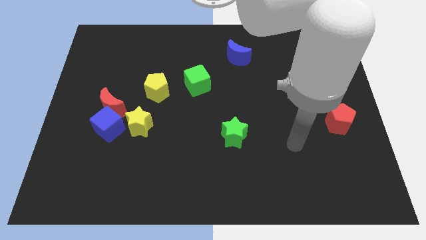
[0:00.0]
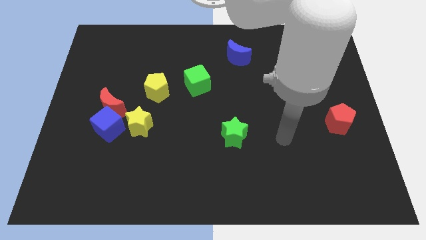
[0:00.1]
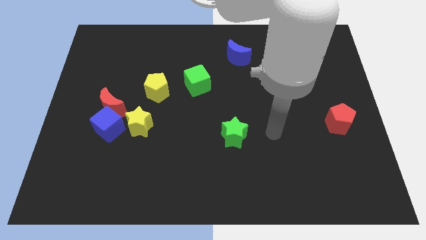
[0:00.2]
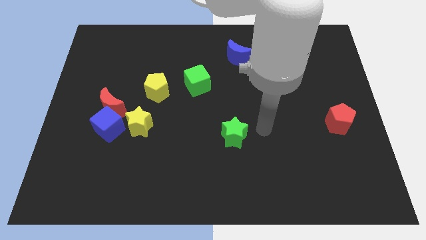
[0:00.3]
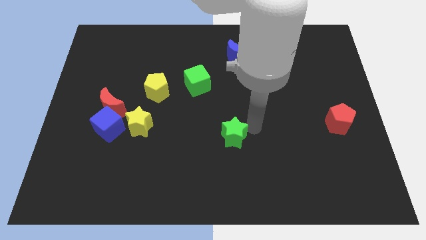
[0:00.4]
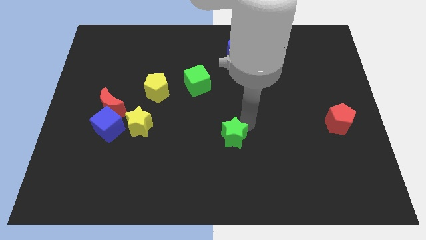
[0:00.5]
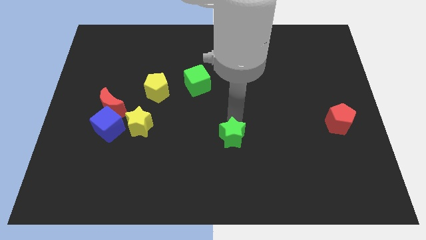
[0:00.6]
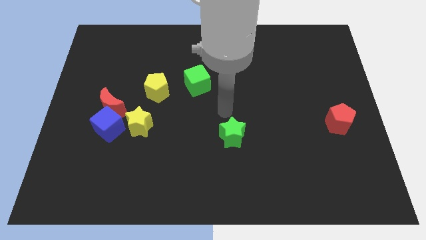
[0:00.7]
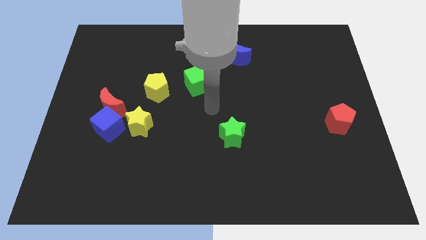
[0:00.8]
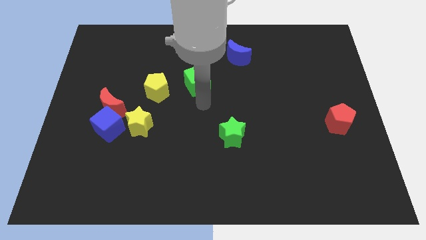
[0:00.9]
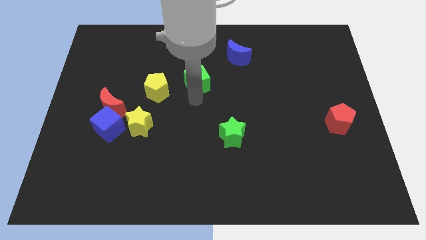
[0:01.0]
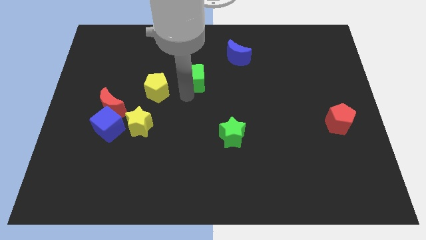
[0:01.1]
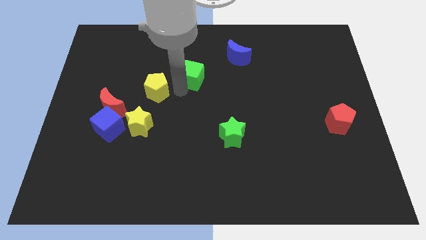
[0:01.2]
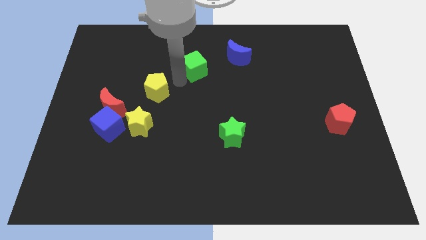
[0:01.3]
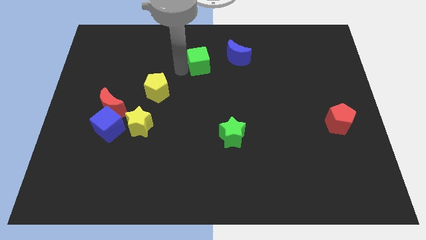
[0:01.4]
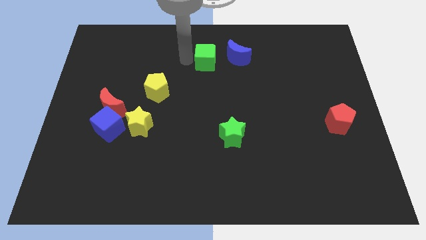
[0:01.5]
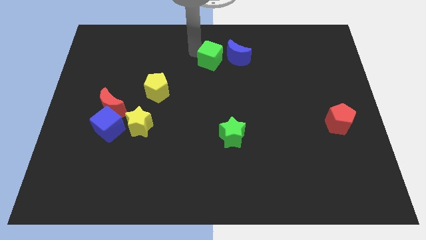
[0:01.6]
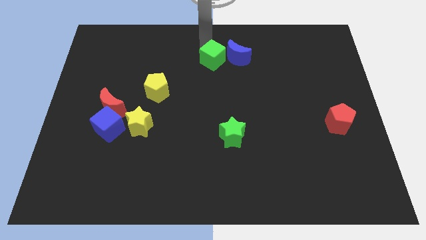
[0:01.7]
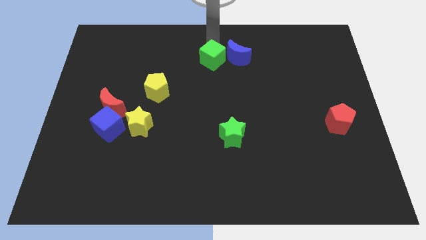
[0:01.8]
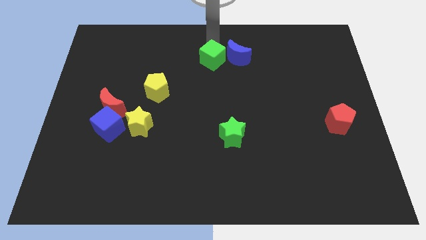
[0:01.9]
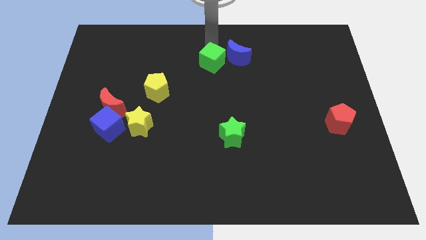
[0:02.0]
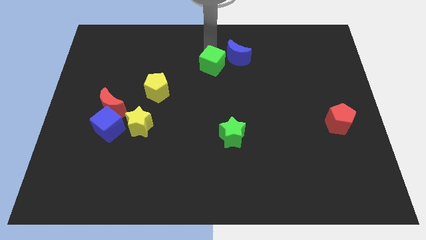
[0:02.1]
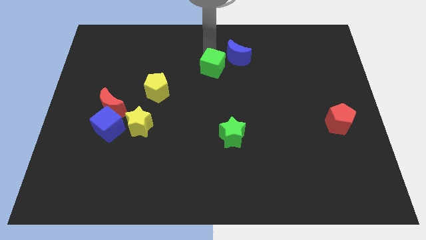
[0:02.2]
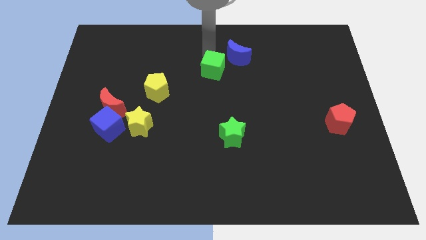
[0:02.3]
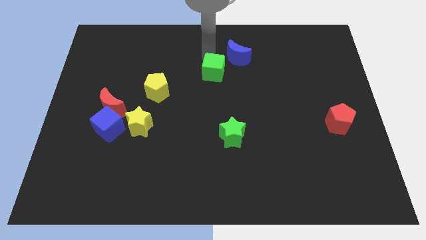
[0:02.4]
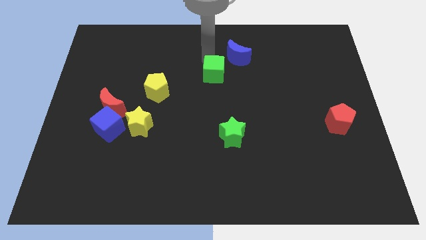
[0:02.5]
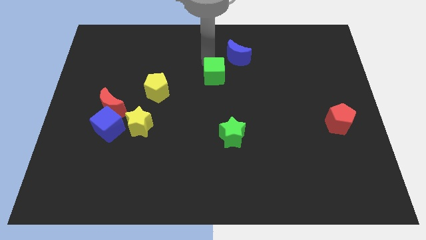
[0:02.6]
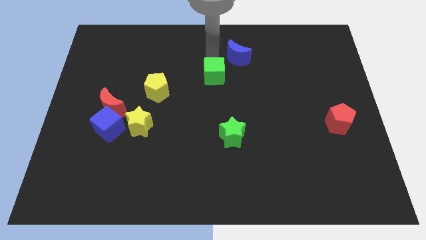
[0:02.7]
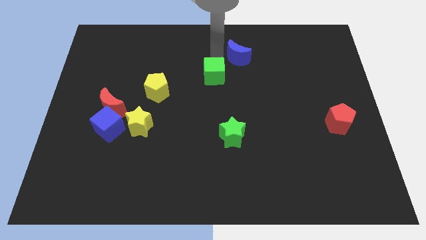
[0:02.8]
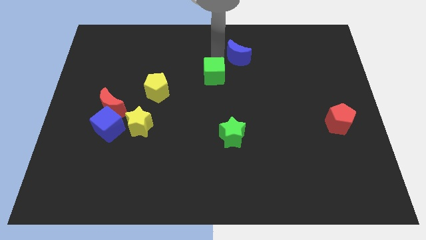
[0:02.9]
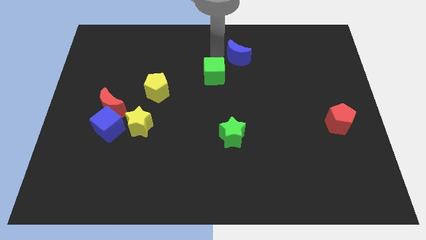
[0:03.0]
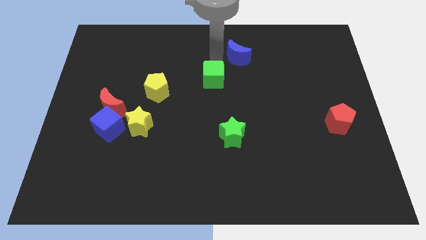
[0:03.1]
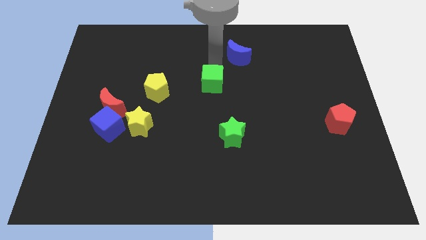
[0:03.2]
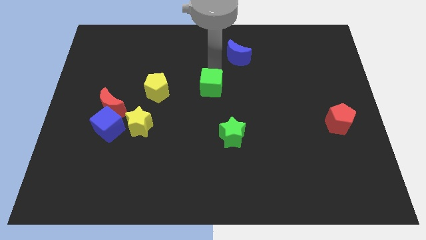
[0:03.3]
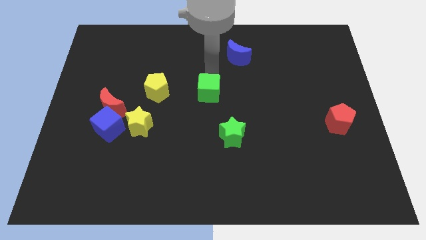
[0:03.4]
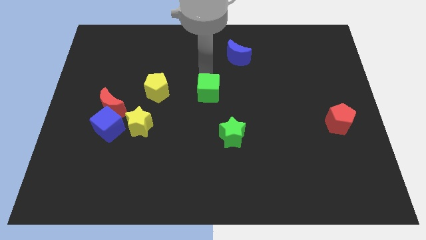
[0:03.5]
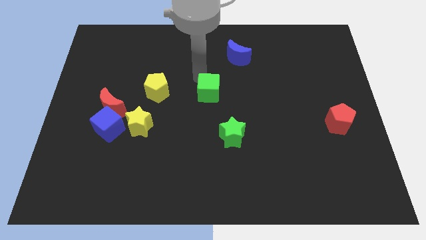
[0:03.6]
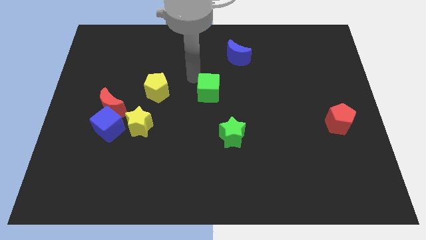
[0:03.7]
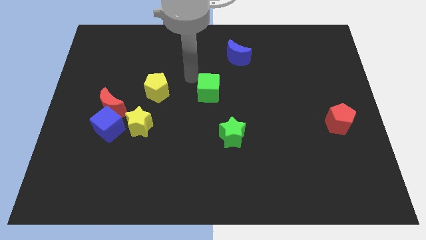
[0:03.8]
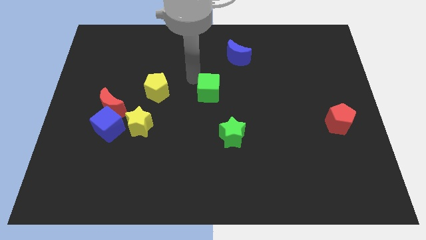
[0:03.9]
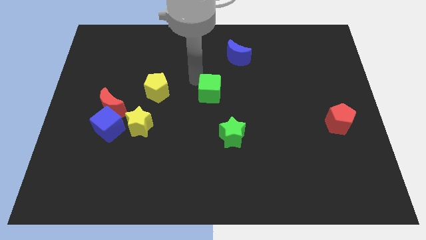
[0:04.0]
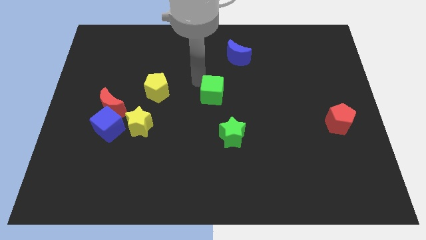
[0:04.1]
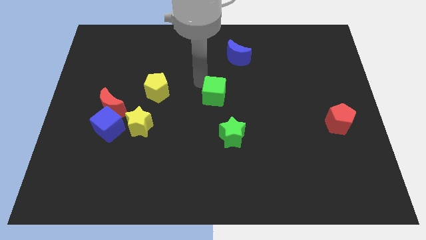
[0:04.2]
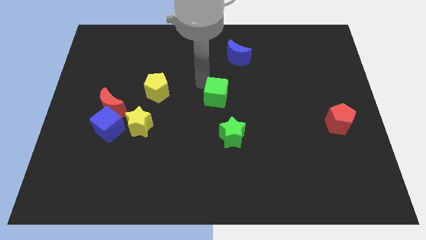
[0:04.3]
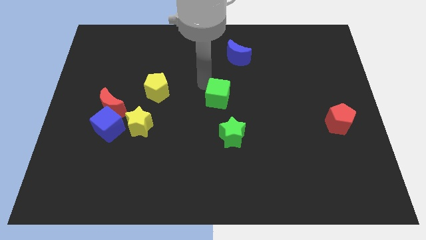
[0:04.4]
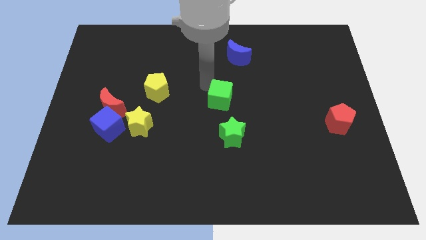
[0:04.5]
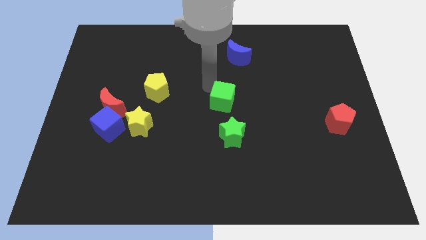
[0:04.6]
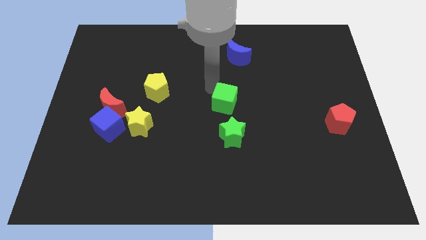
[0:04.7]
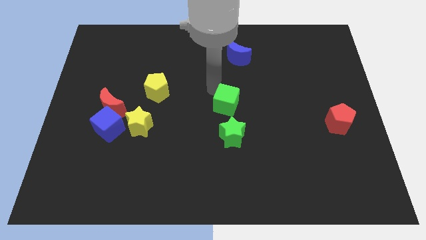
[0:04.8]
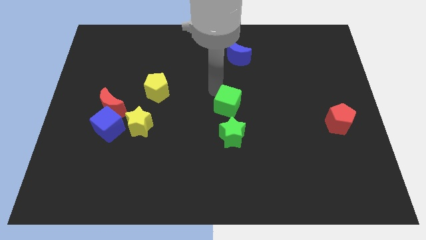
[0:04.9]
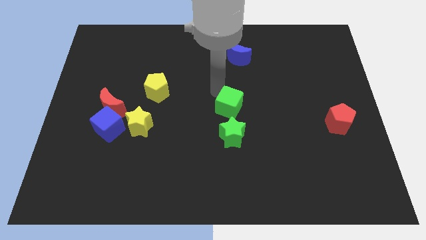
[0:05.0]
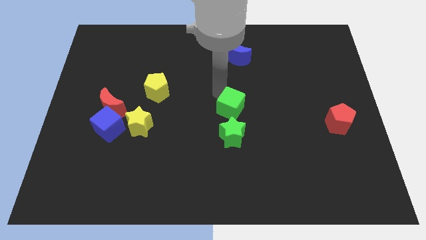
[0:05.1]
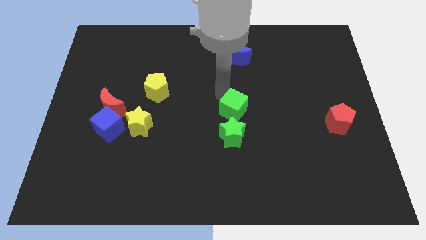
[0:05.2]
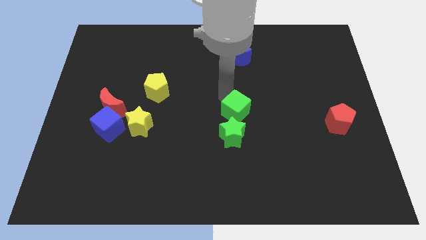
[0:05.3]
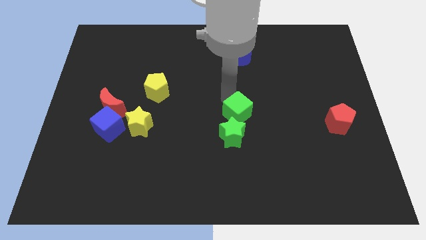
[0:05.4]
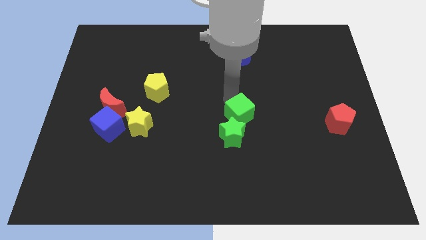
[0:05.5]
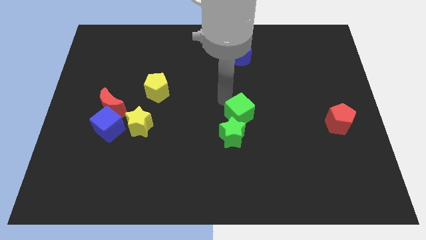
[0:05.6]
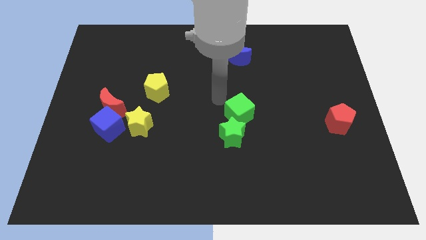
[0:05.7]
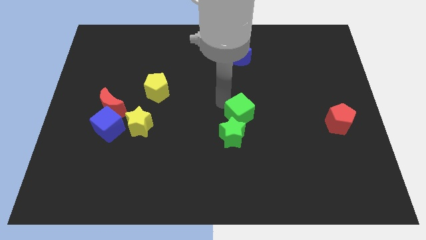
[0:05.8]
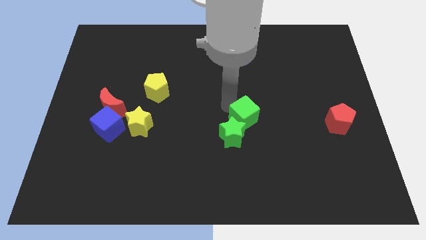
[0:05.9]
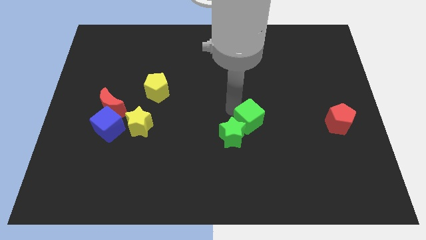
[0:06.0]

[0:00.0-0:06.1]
put the green cube to the right of the green star

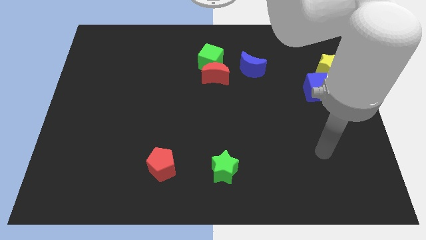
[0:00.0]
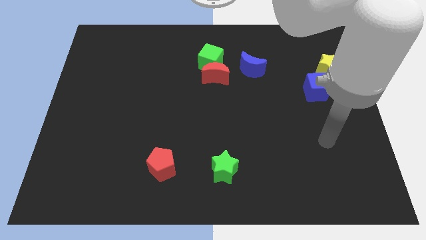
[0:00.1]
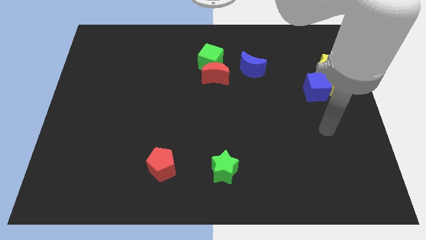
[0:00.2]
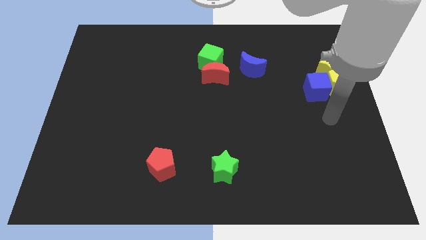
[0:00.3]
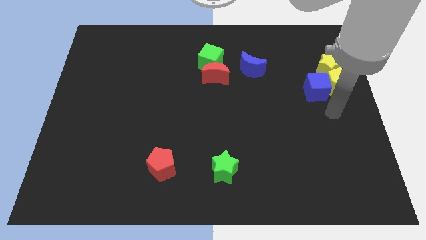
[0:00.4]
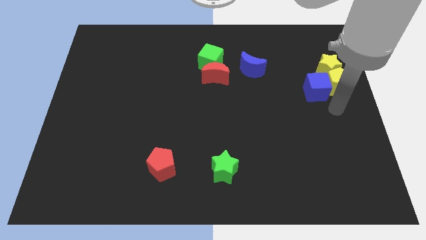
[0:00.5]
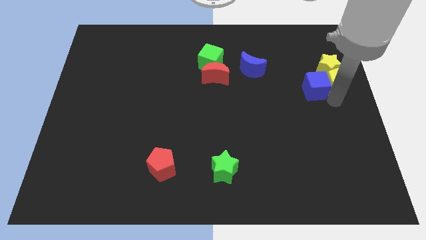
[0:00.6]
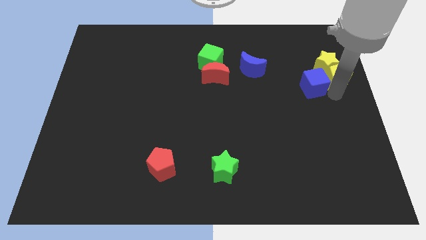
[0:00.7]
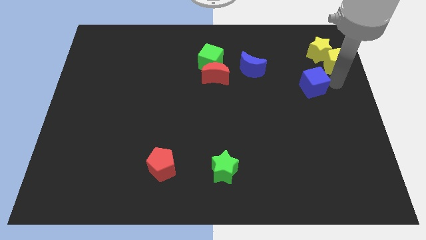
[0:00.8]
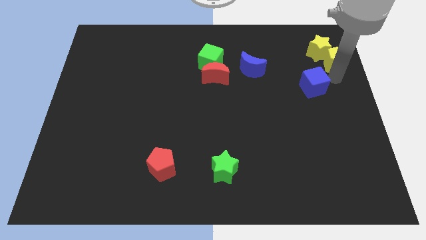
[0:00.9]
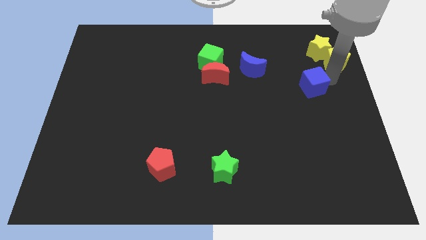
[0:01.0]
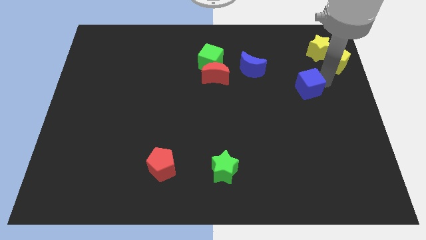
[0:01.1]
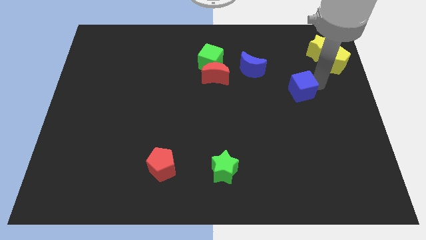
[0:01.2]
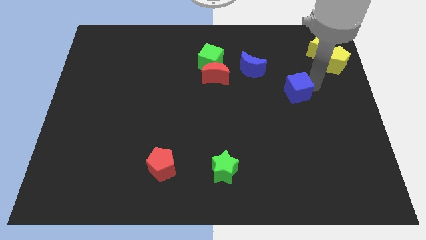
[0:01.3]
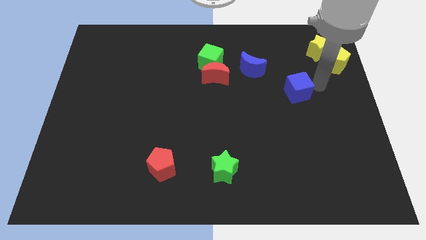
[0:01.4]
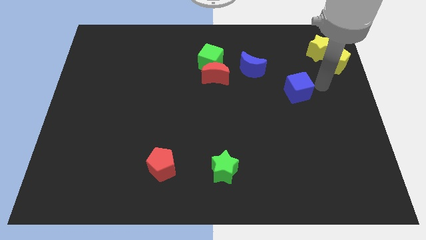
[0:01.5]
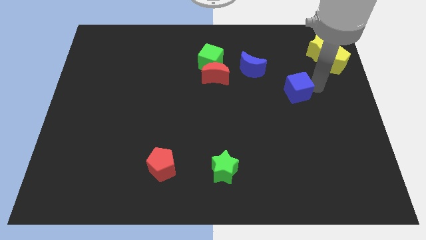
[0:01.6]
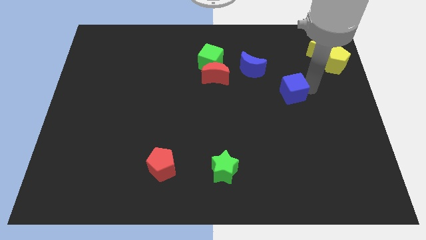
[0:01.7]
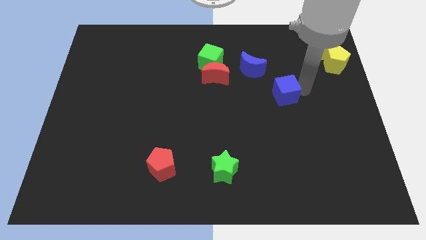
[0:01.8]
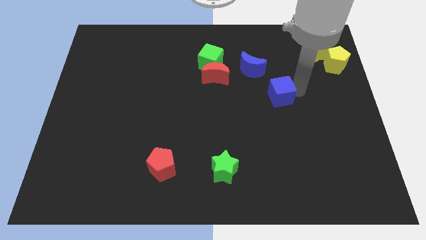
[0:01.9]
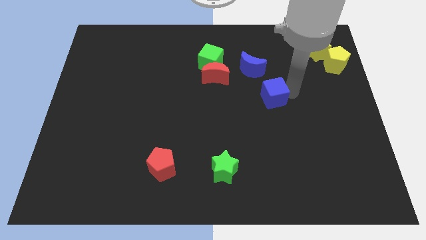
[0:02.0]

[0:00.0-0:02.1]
move the blue cube to the bottom side of the blue moon
